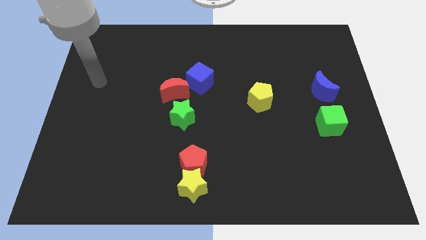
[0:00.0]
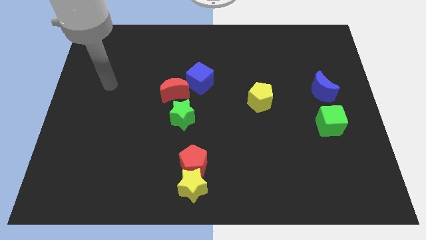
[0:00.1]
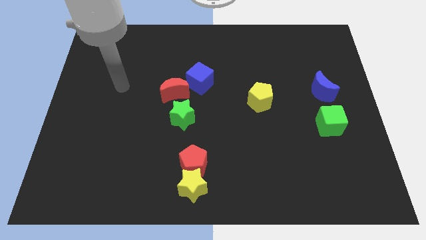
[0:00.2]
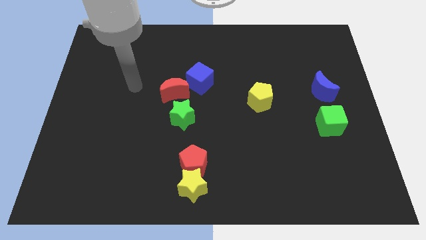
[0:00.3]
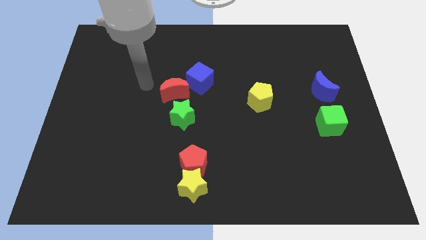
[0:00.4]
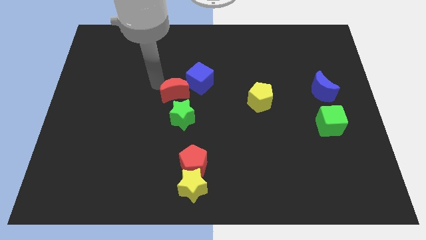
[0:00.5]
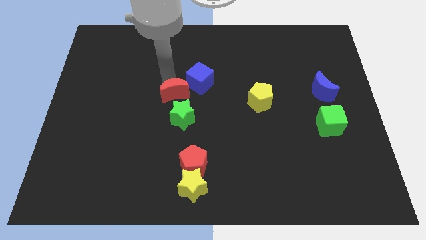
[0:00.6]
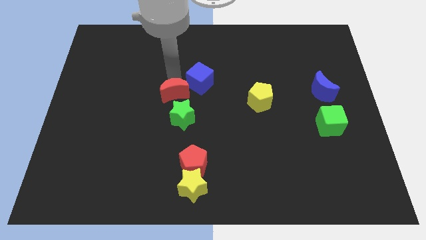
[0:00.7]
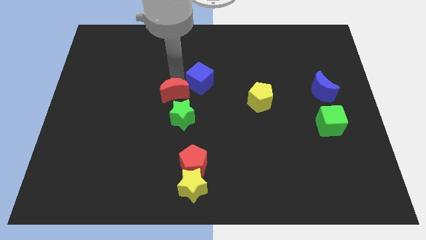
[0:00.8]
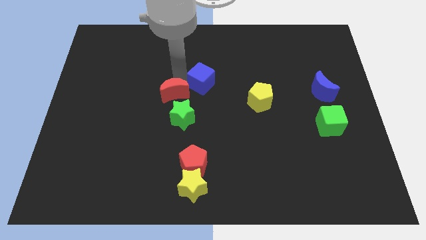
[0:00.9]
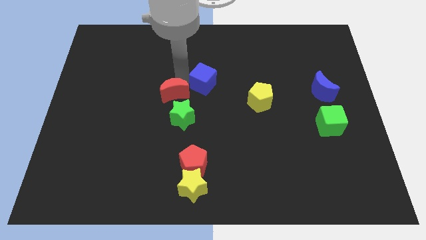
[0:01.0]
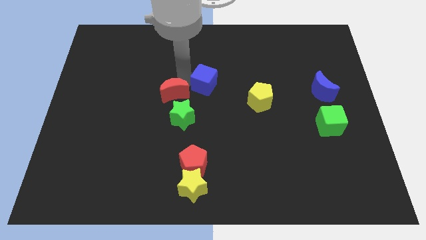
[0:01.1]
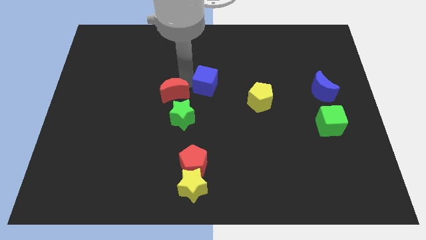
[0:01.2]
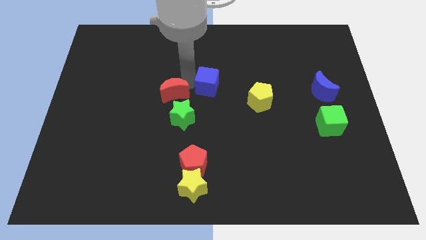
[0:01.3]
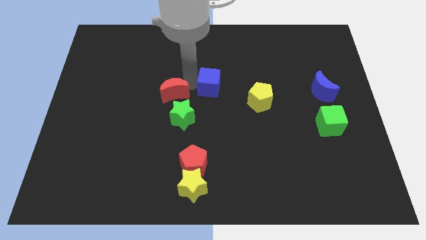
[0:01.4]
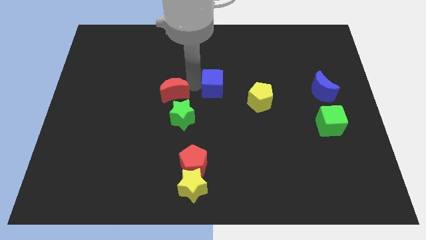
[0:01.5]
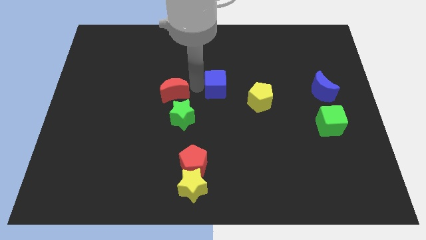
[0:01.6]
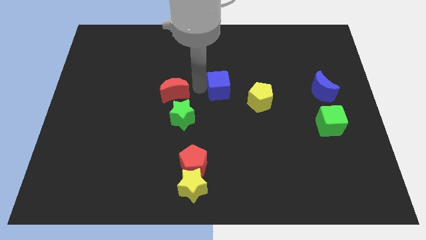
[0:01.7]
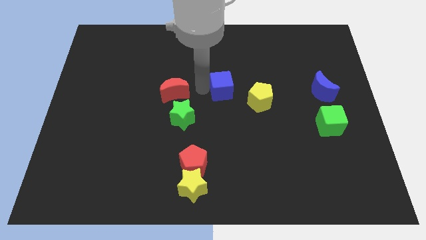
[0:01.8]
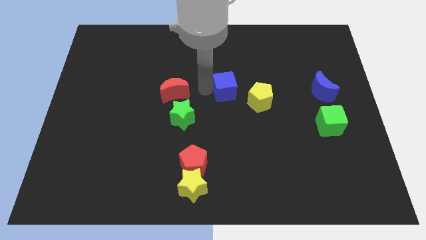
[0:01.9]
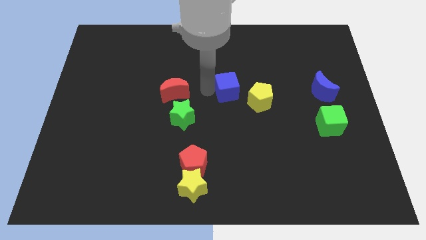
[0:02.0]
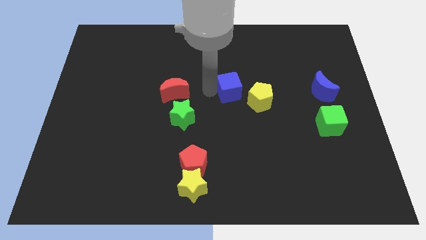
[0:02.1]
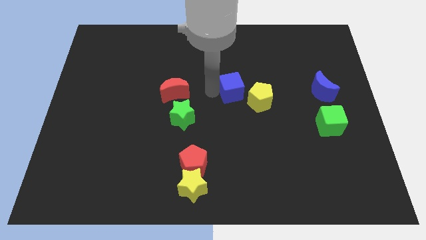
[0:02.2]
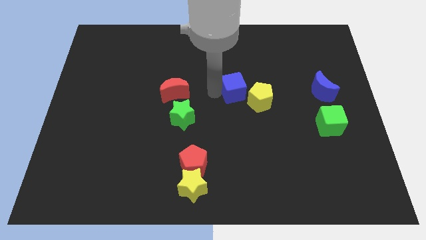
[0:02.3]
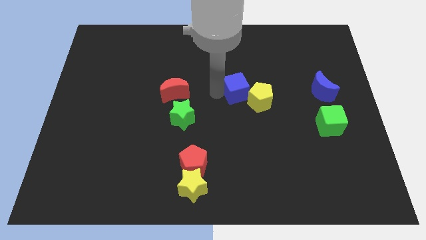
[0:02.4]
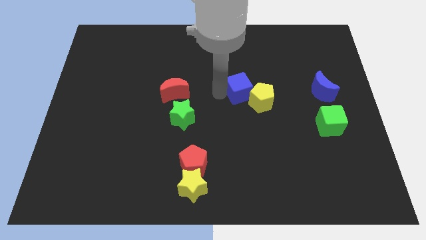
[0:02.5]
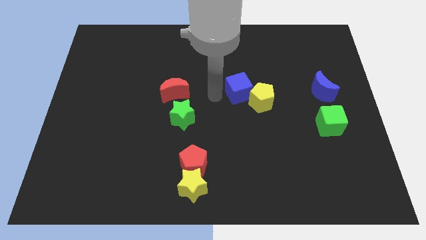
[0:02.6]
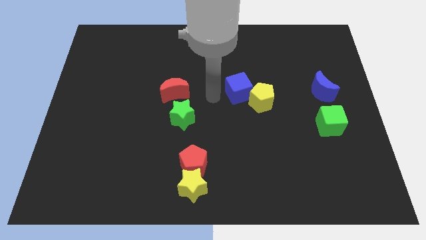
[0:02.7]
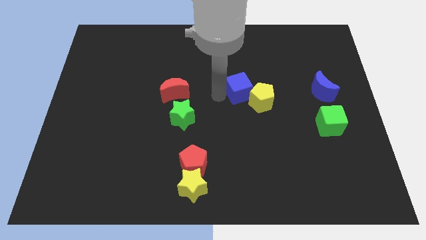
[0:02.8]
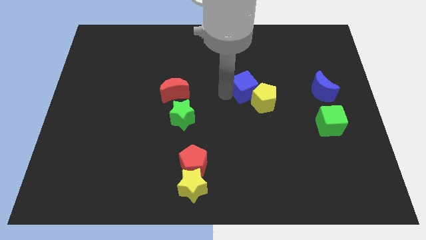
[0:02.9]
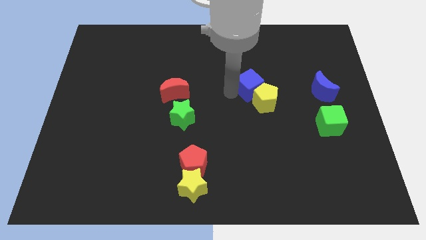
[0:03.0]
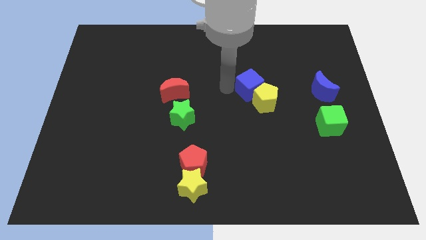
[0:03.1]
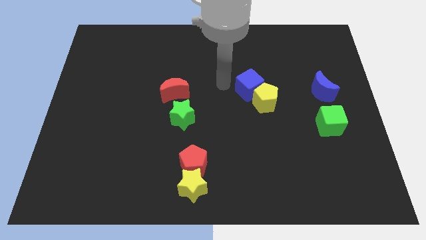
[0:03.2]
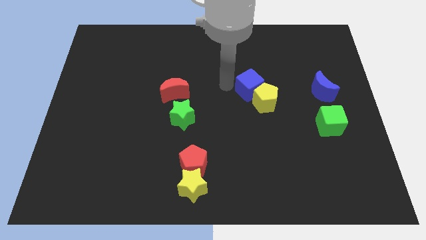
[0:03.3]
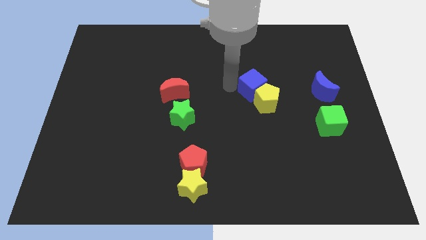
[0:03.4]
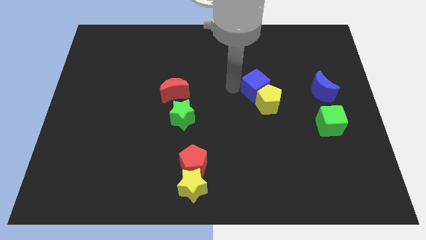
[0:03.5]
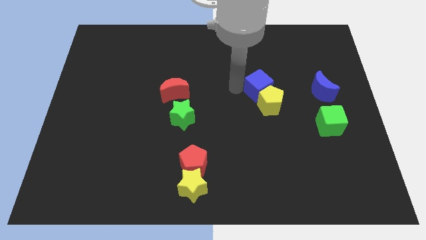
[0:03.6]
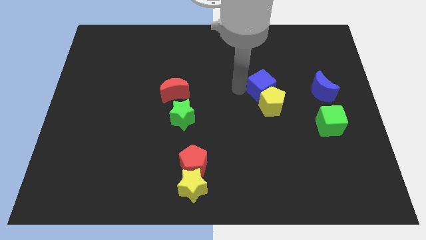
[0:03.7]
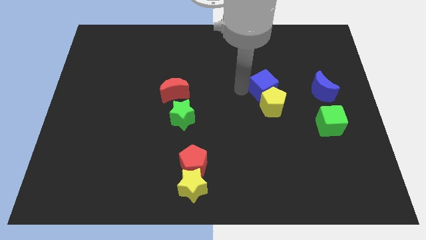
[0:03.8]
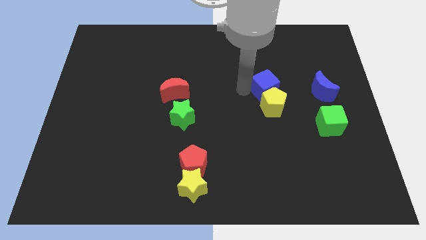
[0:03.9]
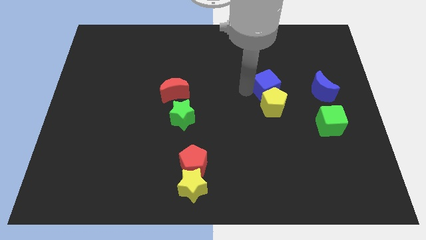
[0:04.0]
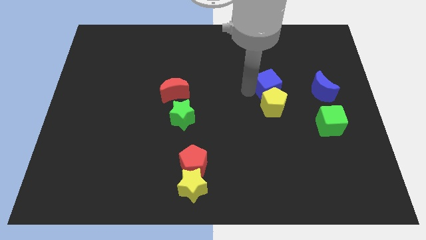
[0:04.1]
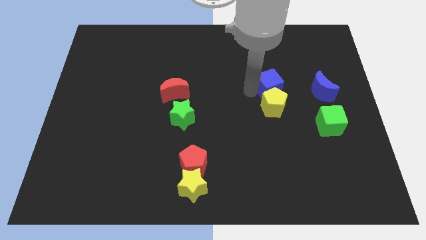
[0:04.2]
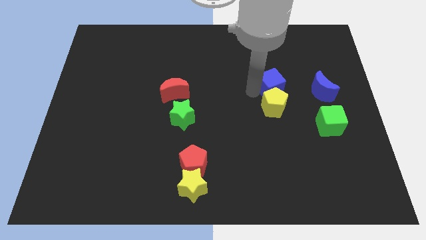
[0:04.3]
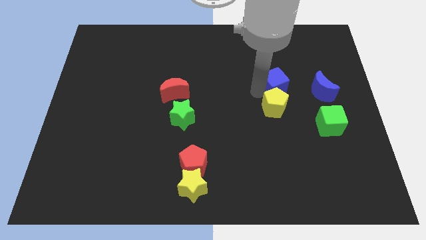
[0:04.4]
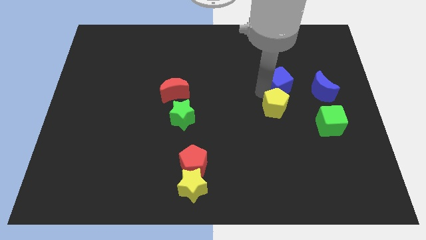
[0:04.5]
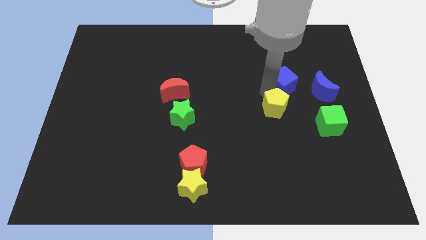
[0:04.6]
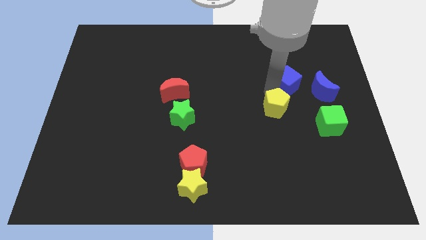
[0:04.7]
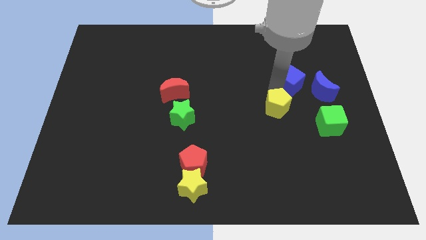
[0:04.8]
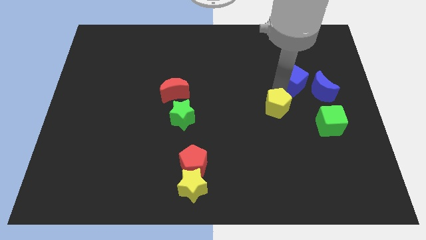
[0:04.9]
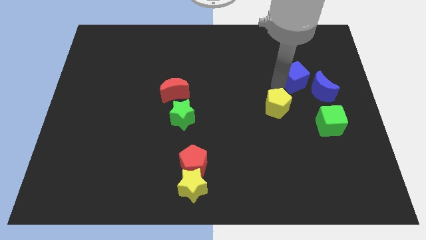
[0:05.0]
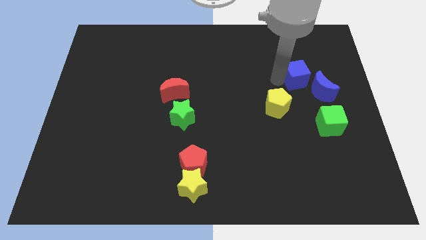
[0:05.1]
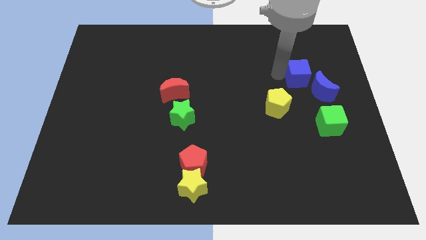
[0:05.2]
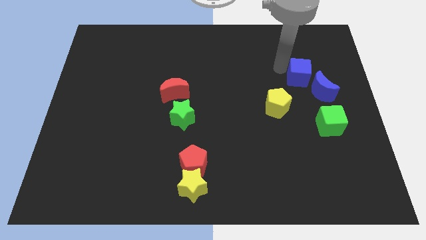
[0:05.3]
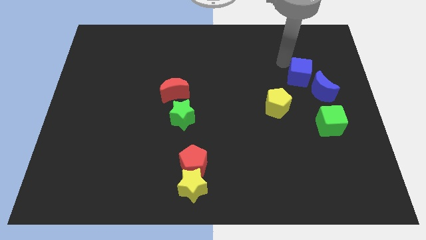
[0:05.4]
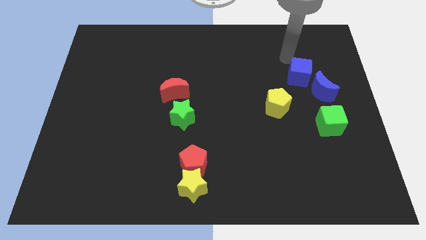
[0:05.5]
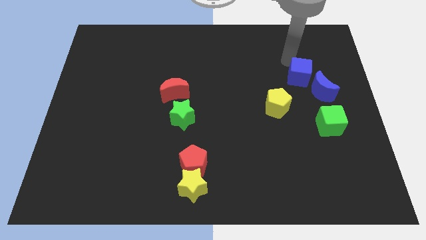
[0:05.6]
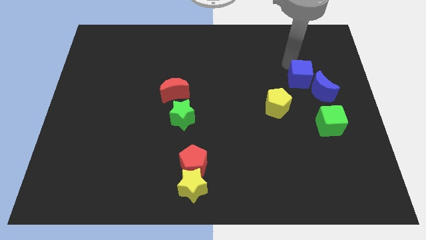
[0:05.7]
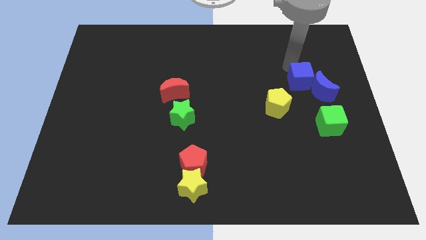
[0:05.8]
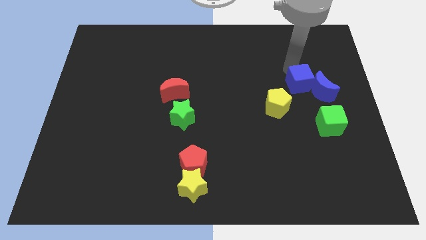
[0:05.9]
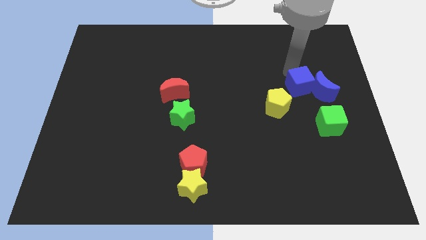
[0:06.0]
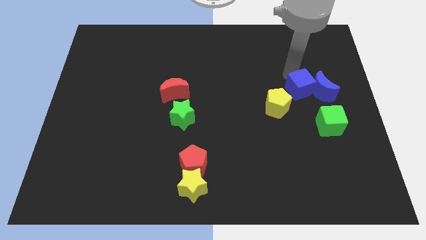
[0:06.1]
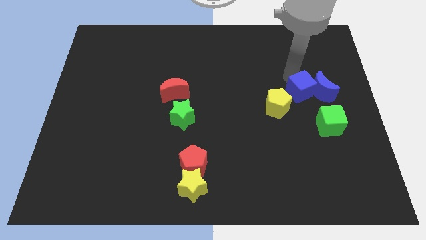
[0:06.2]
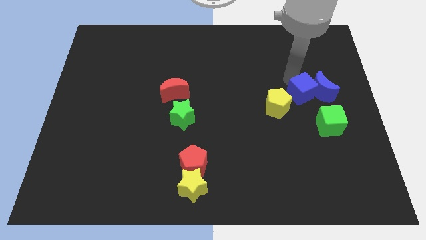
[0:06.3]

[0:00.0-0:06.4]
slide the blue cube to the right of the yellow pentagon
